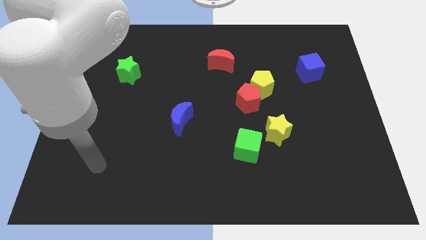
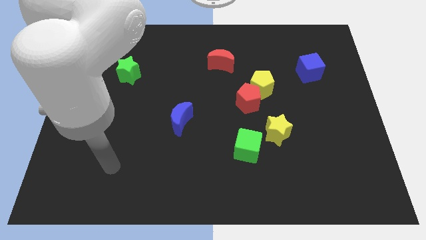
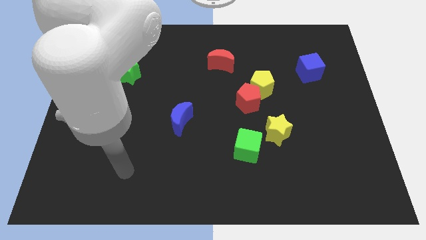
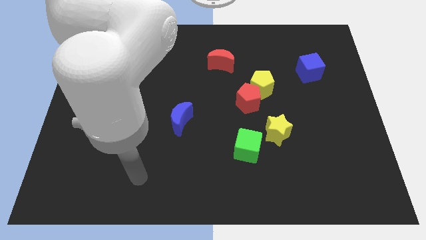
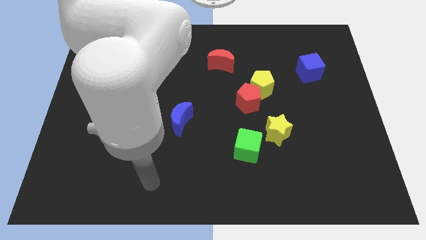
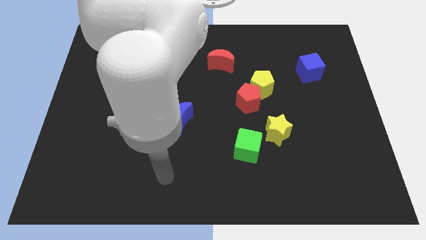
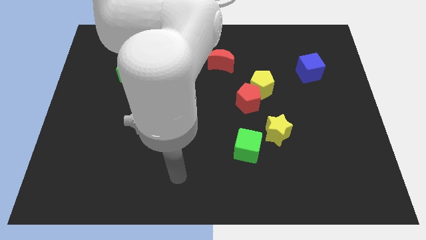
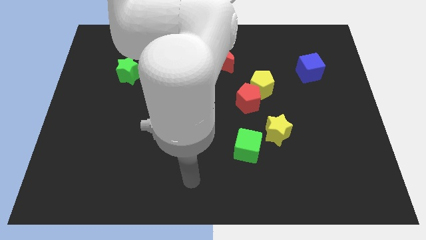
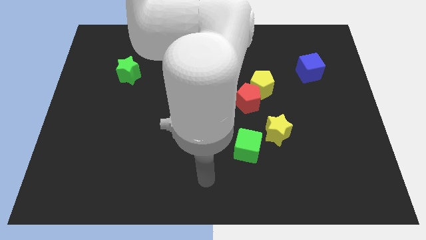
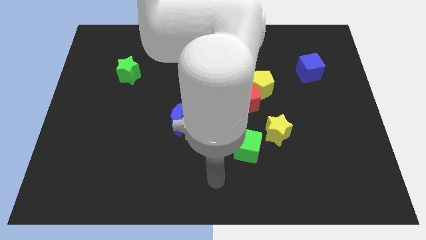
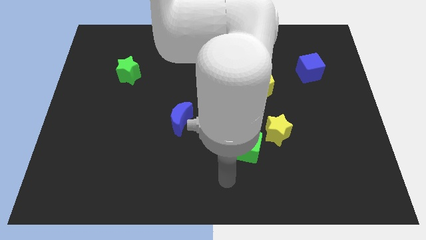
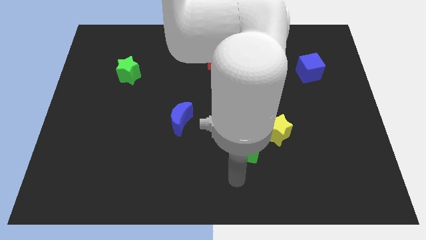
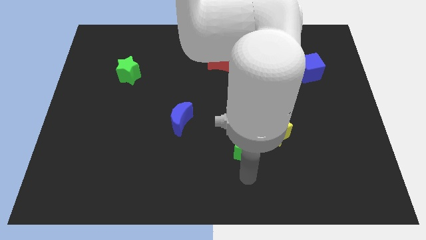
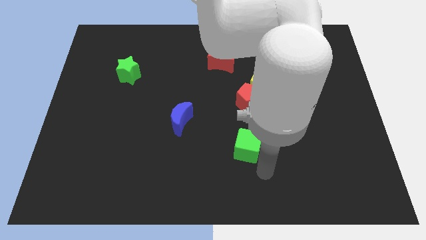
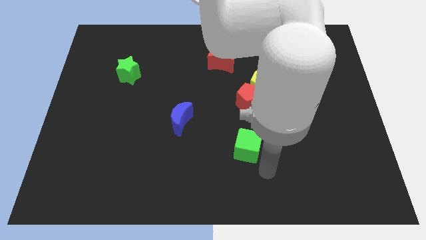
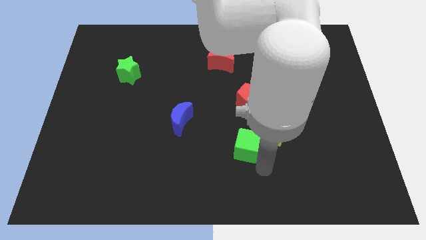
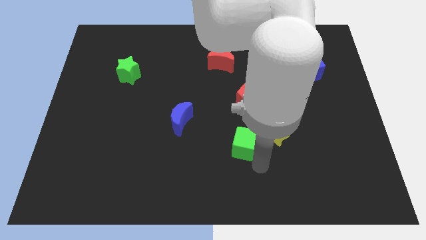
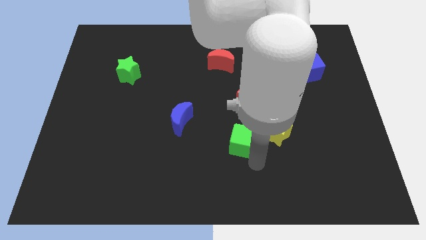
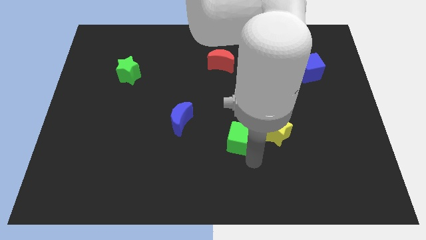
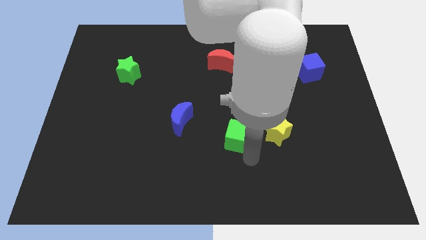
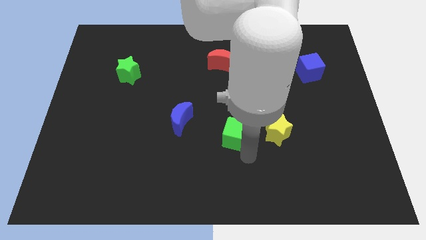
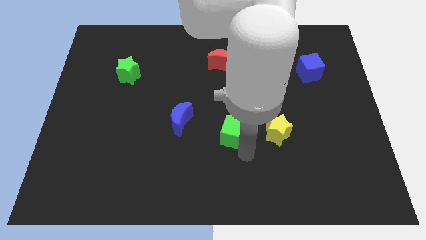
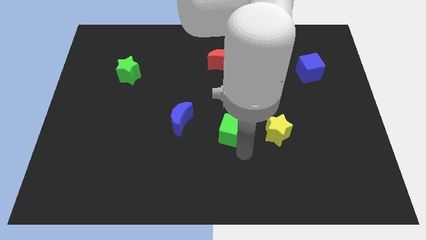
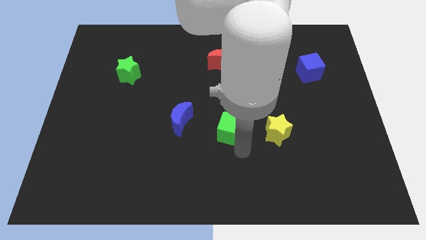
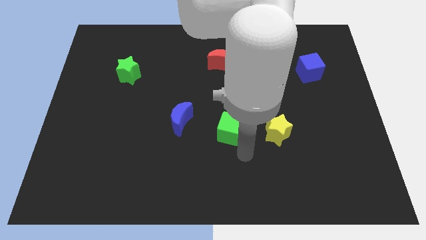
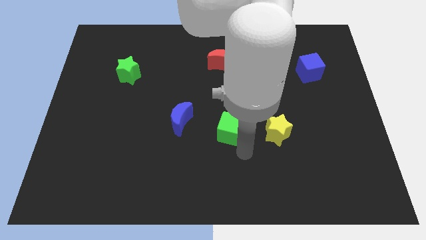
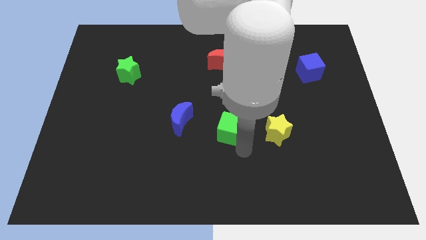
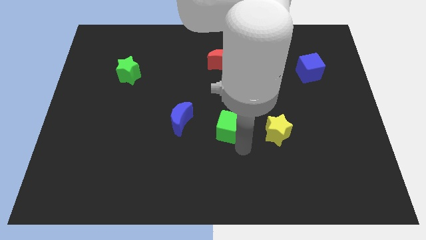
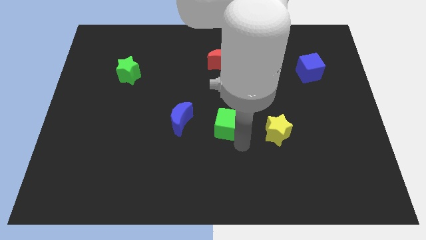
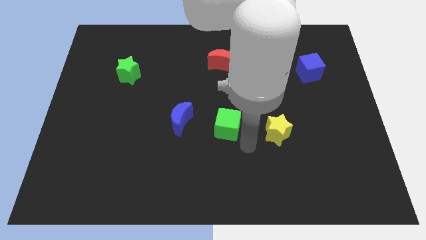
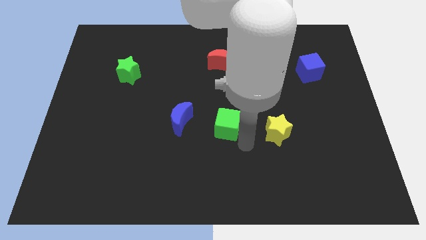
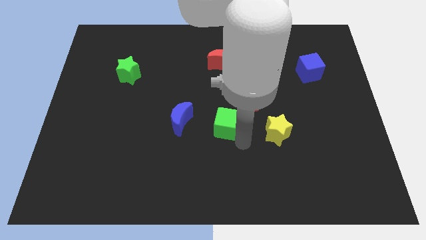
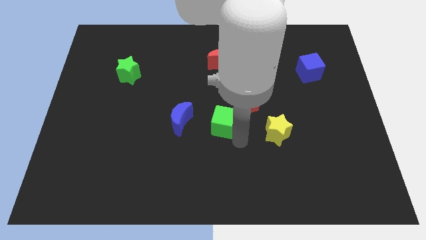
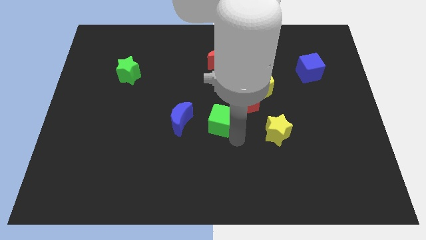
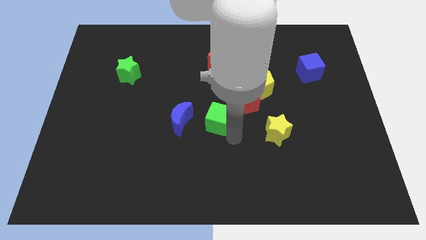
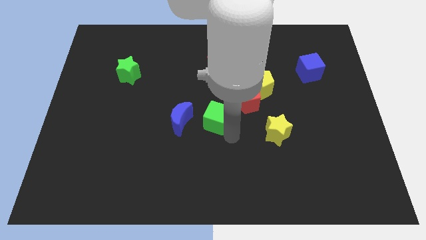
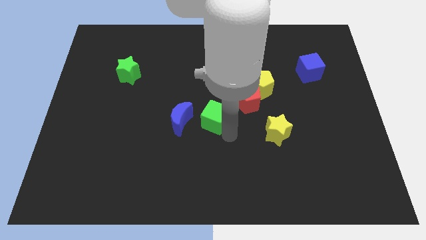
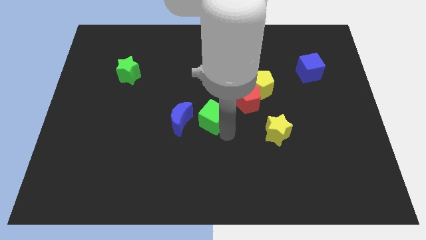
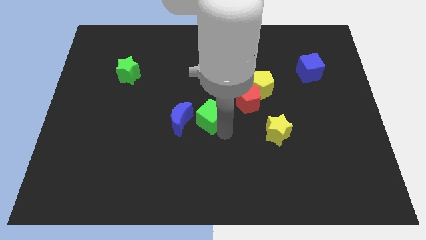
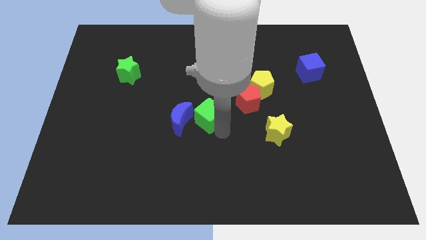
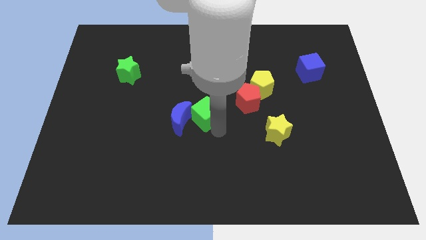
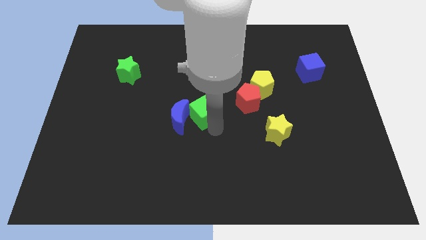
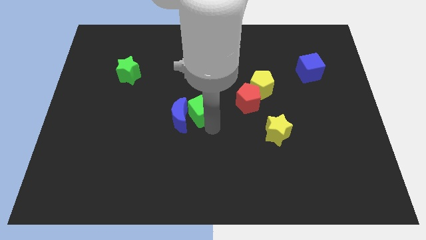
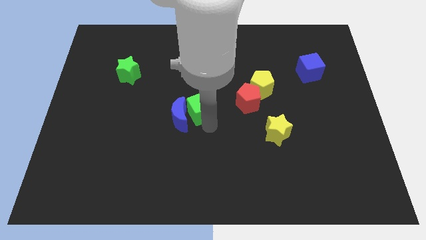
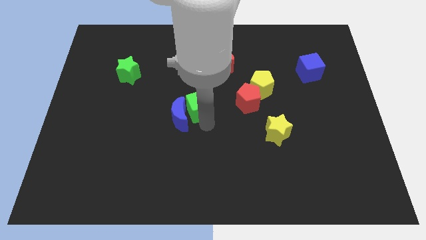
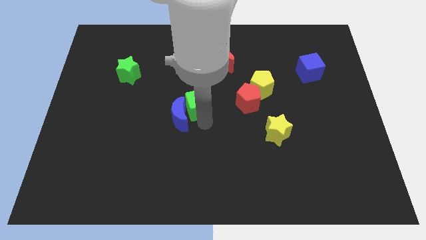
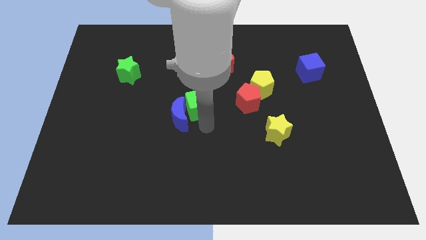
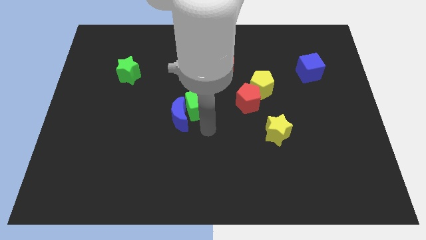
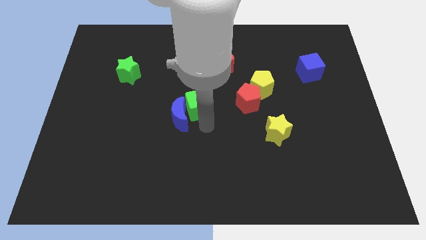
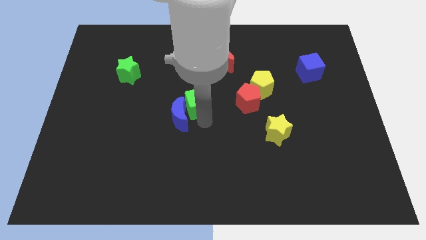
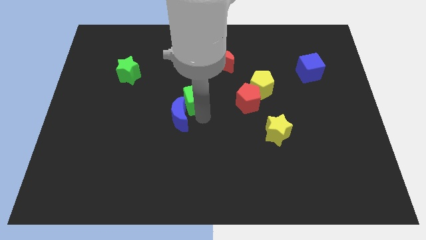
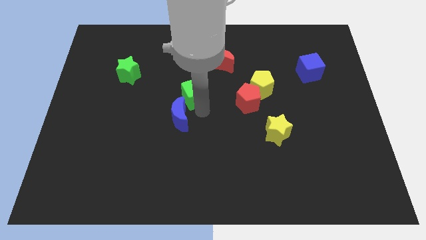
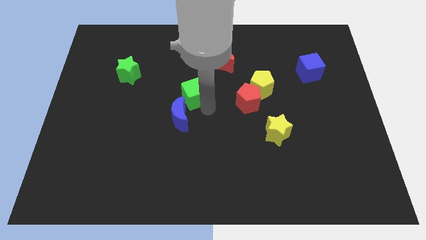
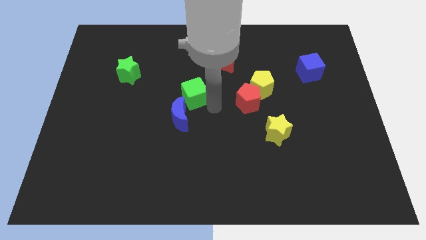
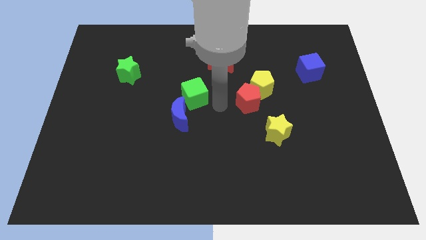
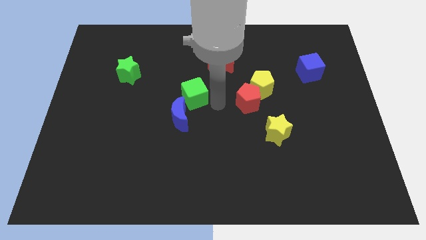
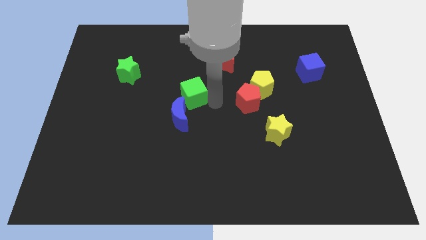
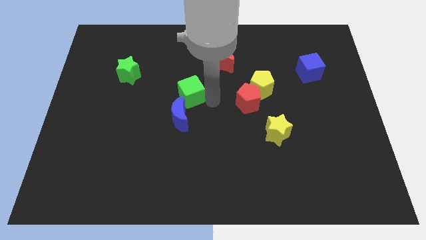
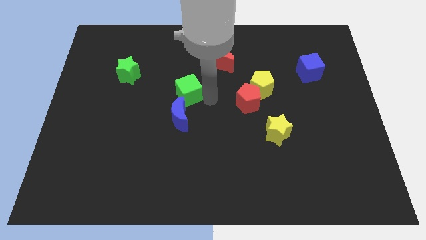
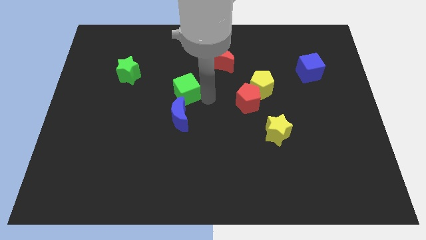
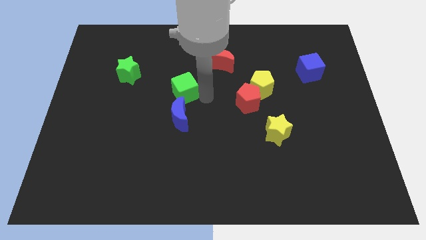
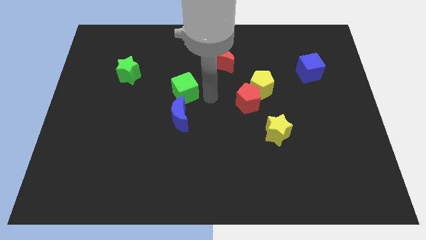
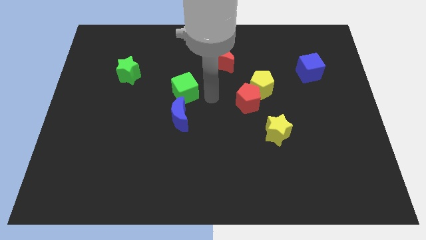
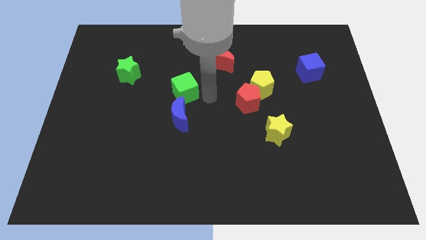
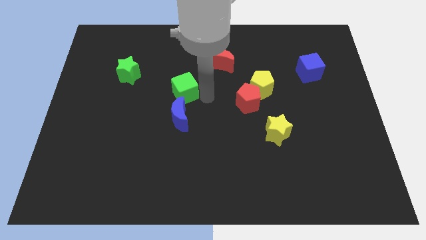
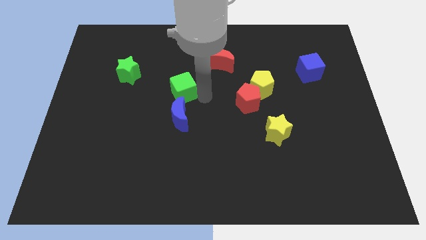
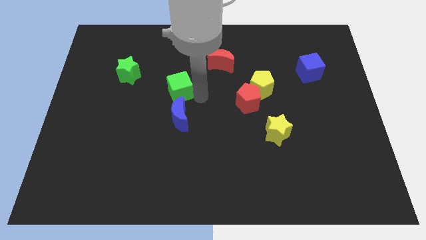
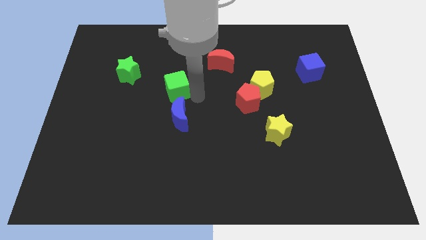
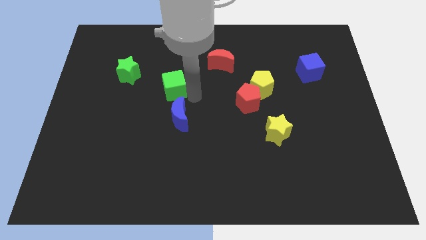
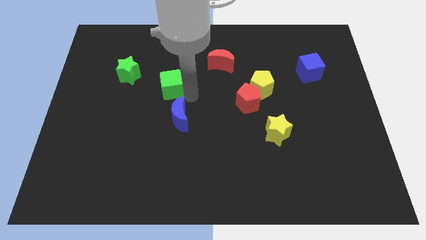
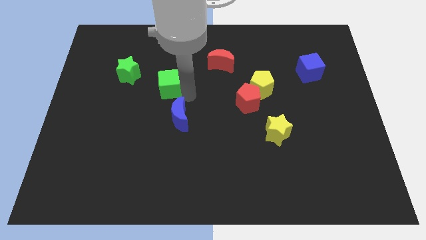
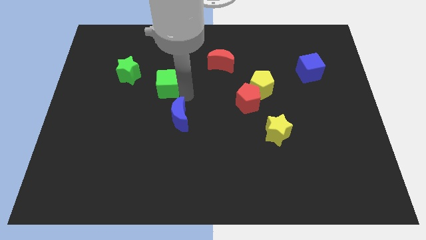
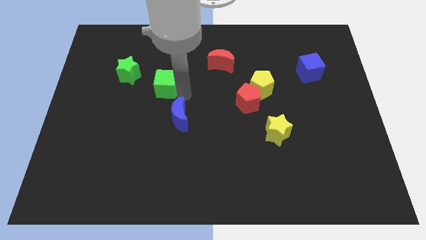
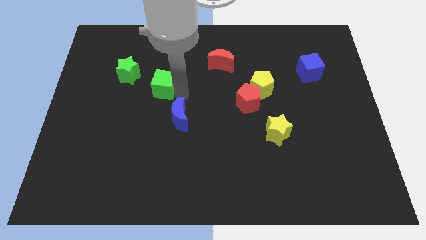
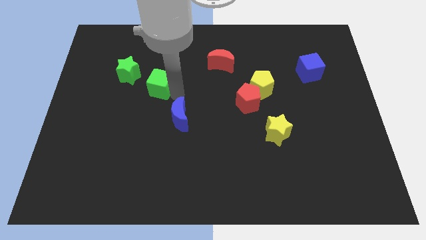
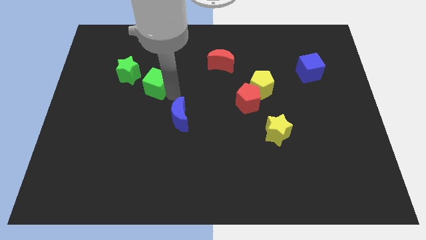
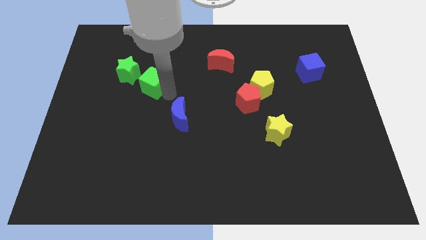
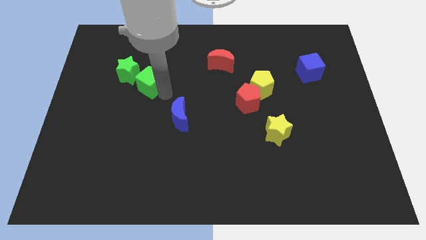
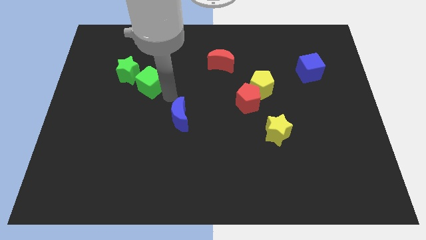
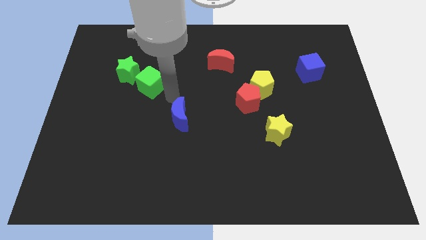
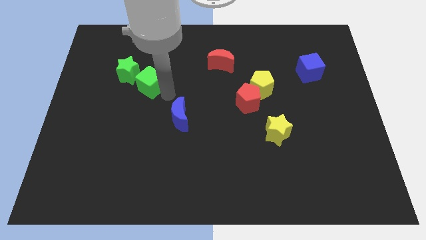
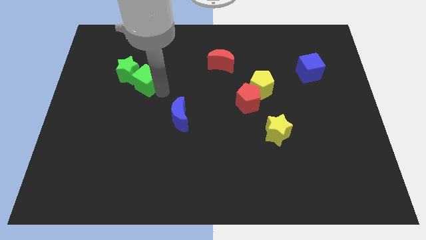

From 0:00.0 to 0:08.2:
put the green cube towards the green star
